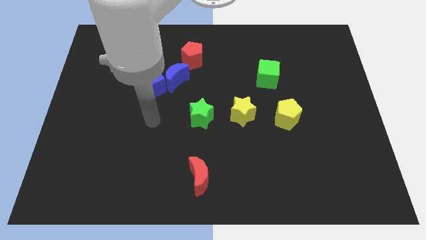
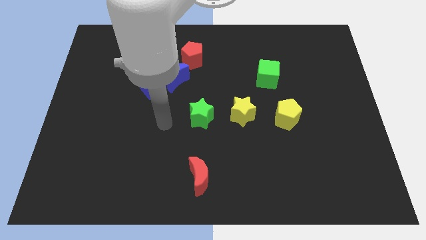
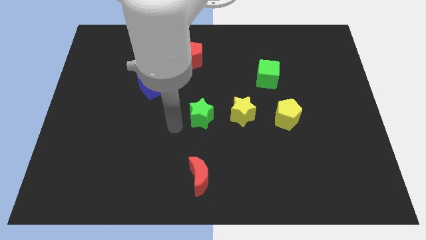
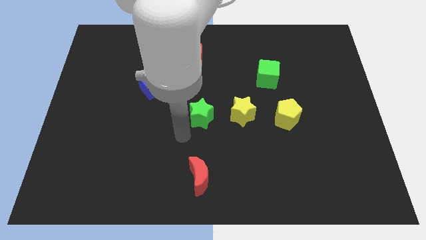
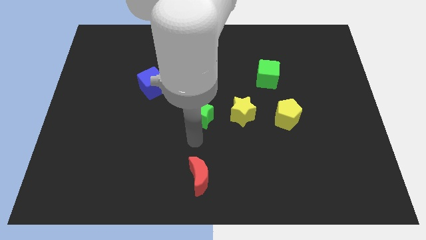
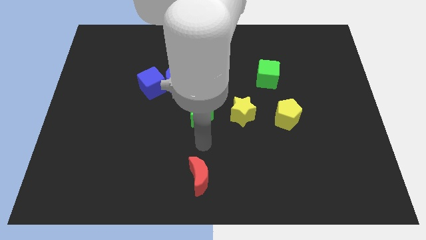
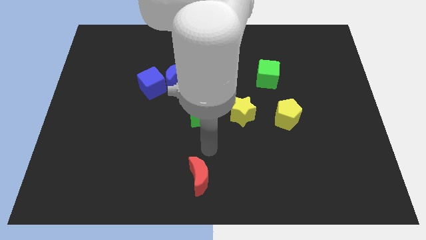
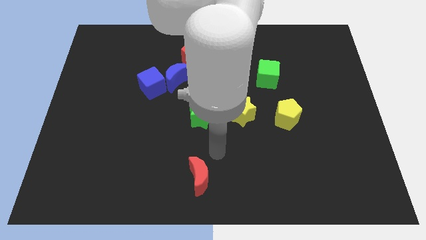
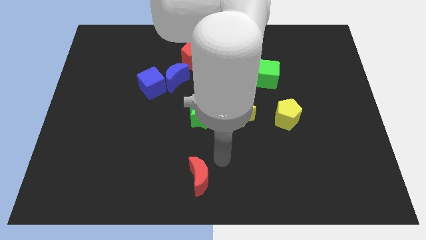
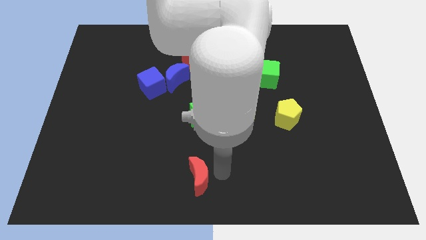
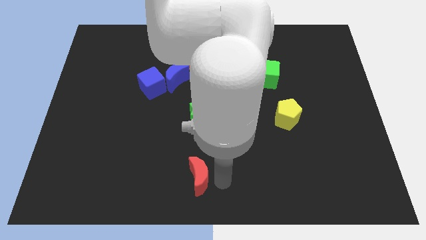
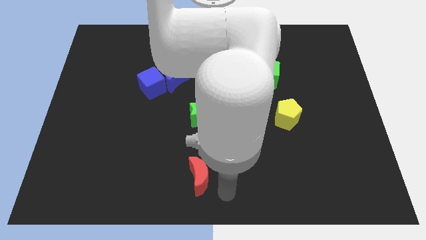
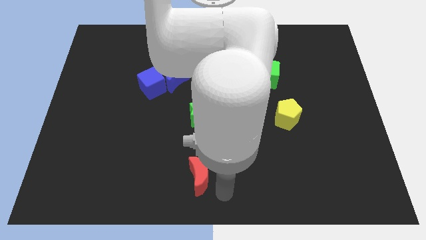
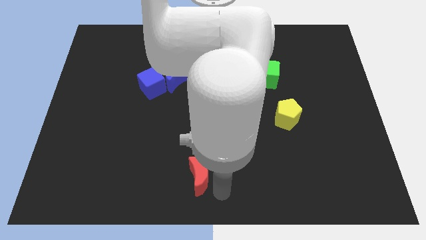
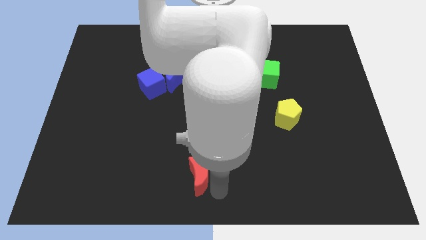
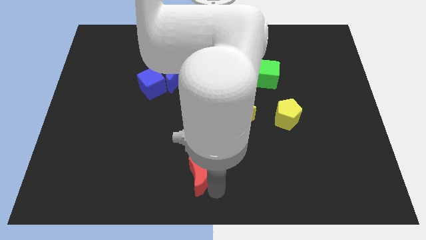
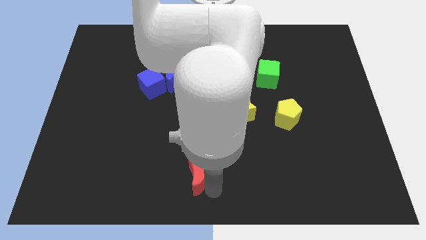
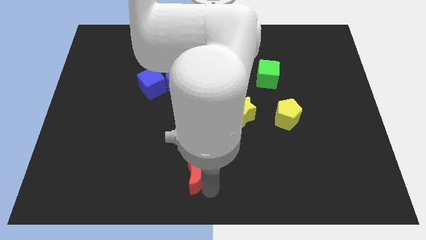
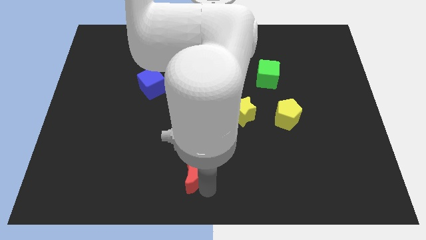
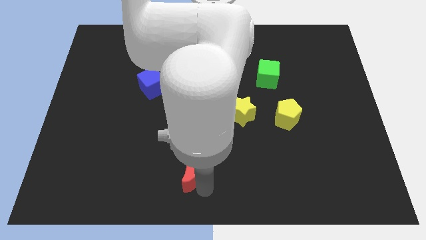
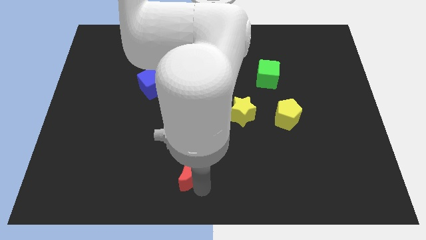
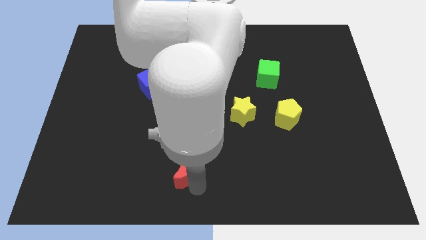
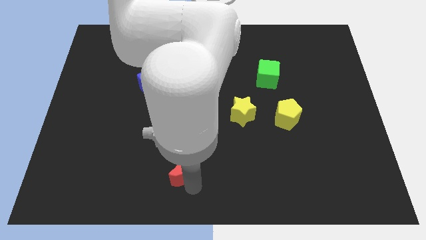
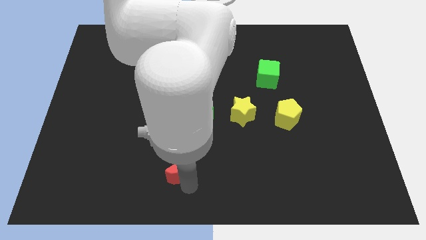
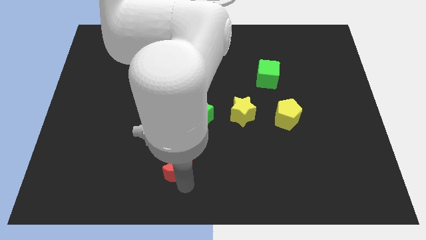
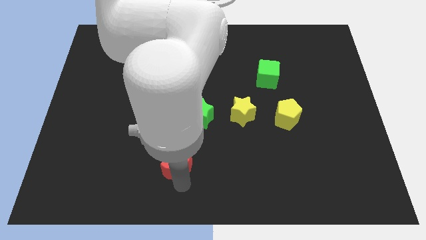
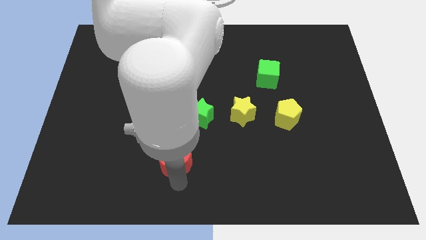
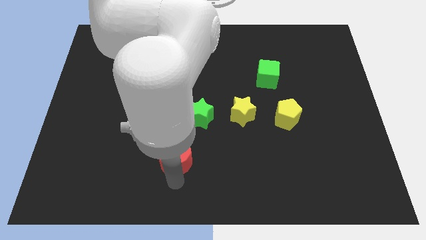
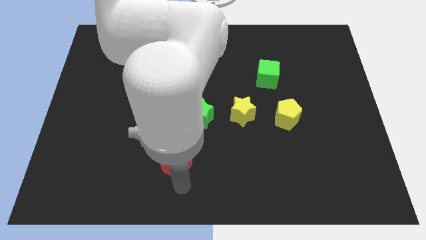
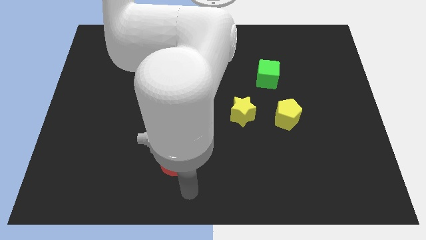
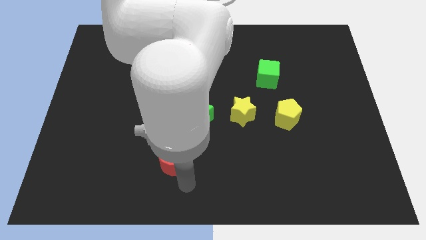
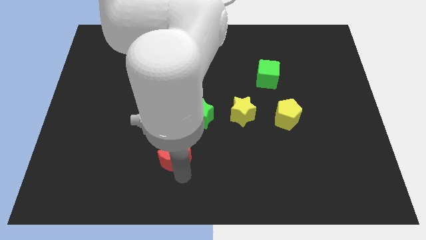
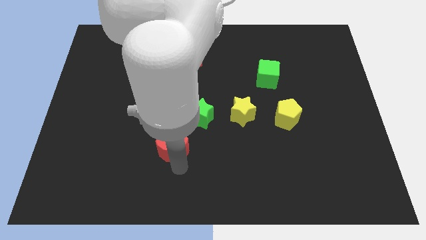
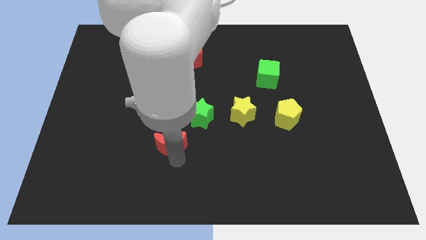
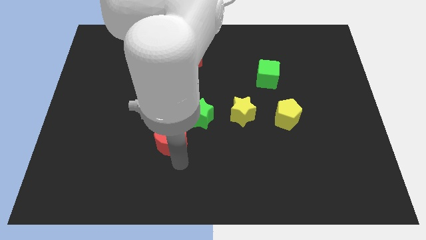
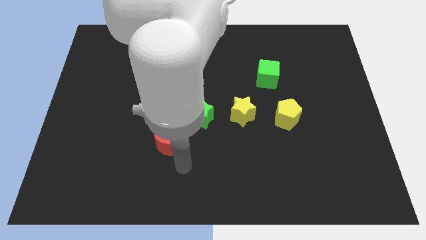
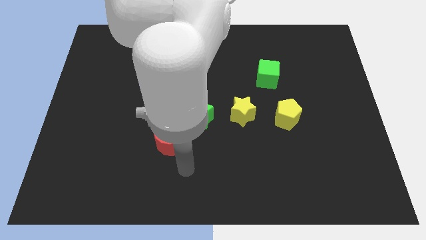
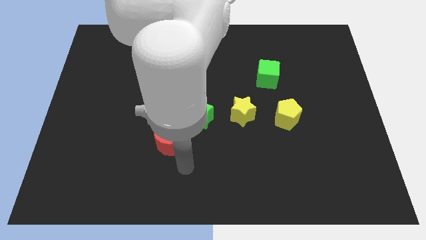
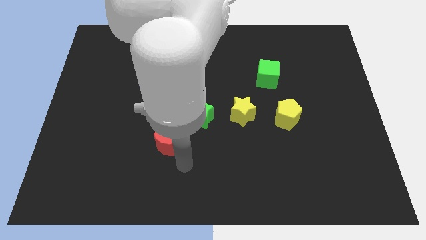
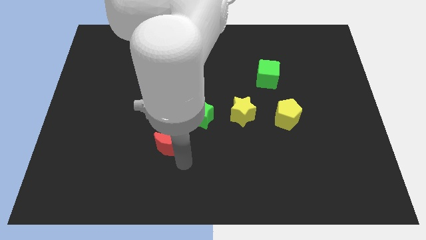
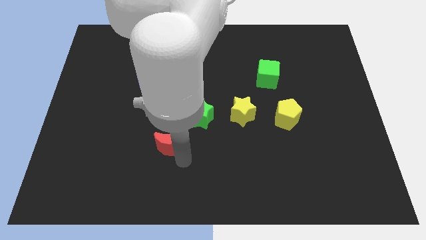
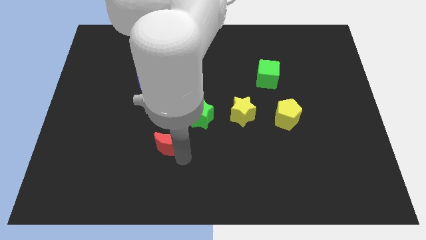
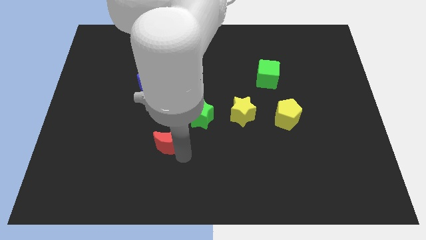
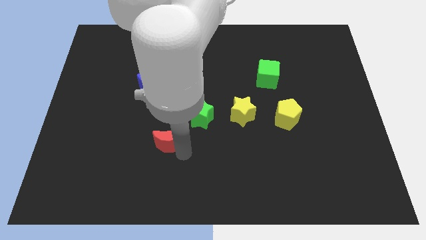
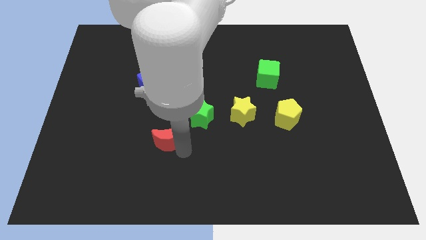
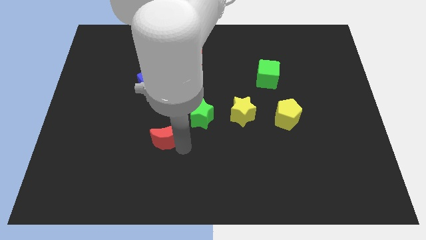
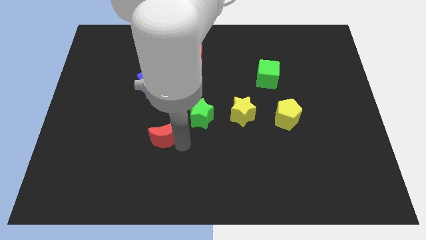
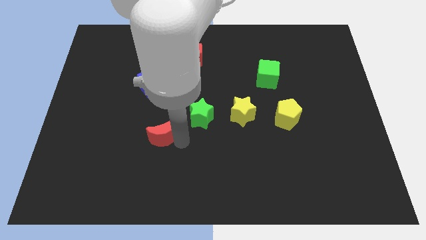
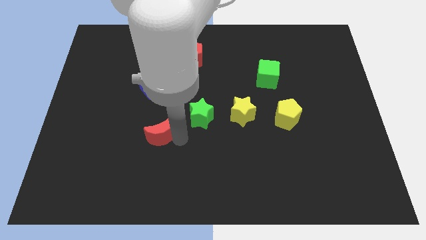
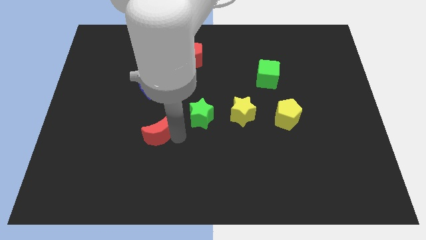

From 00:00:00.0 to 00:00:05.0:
put the red moon just left of the green star

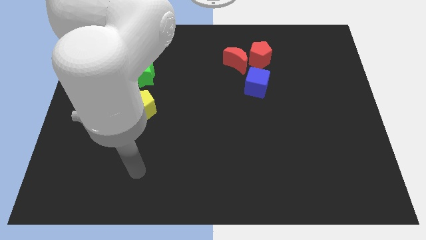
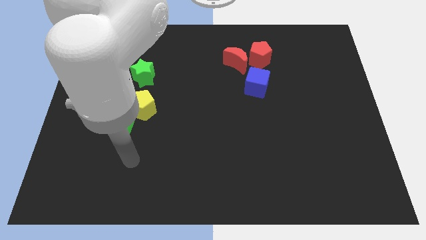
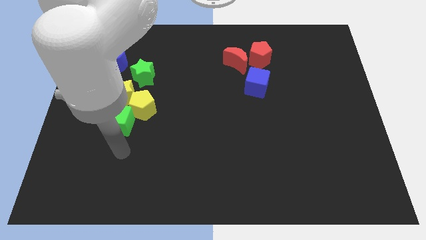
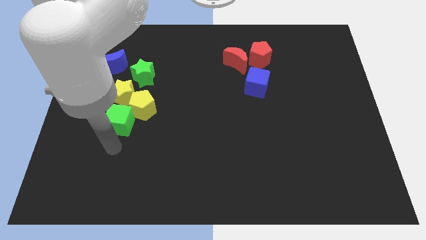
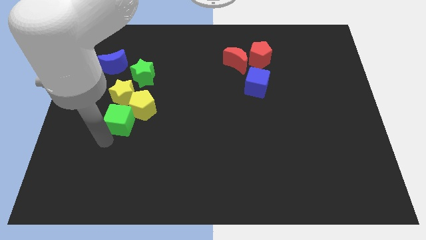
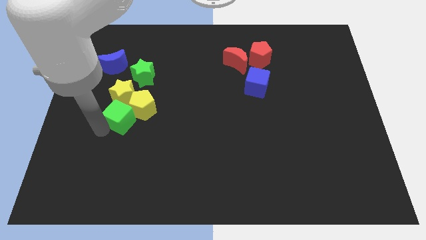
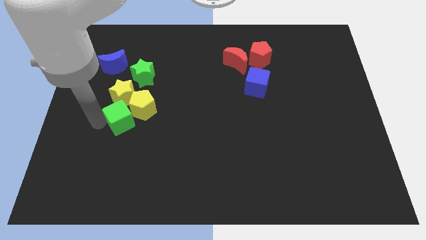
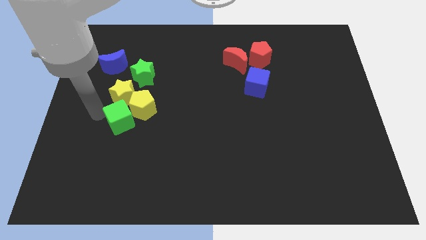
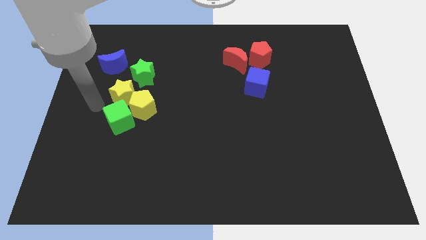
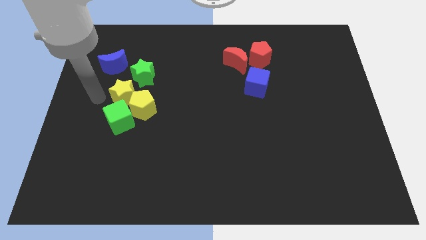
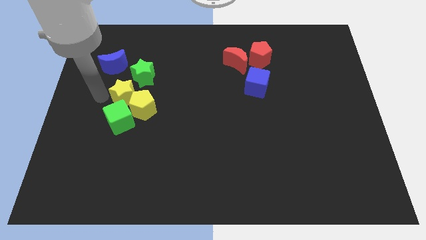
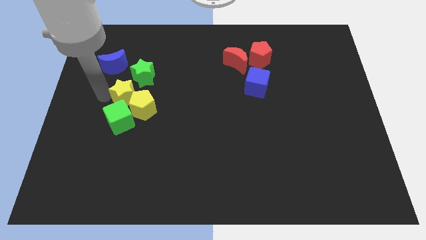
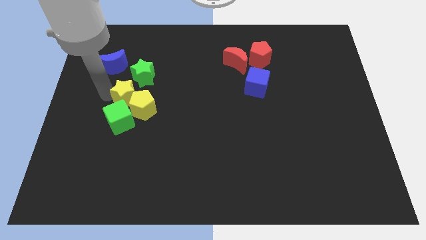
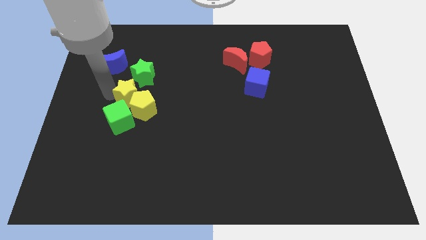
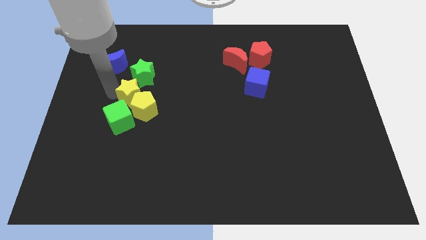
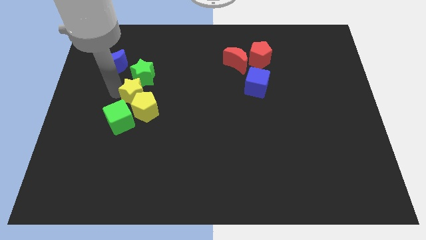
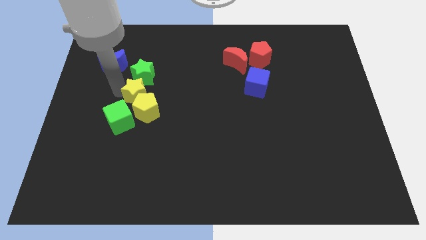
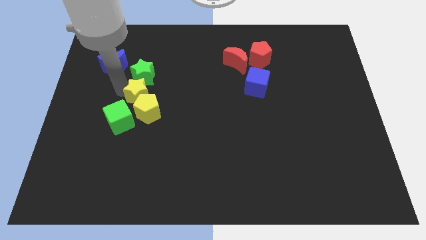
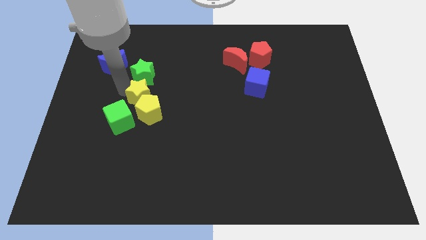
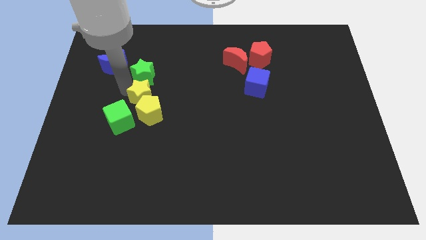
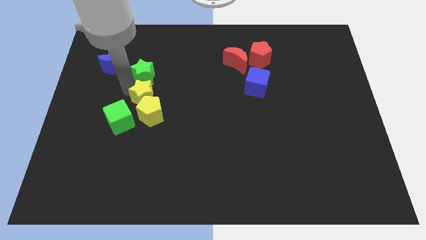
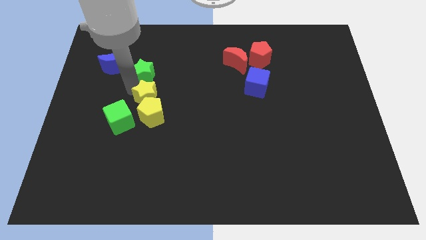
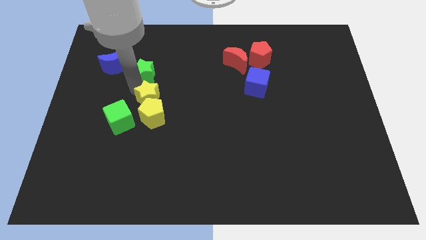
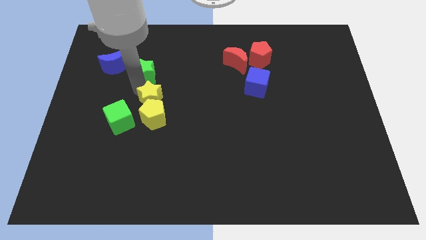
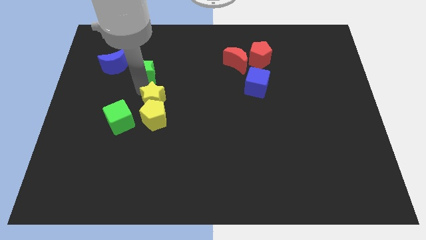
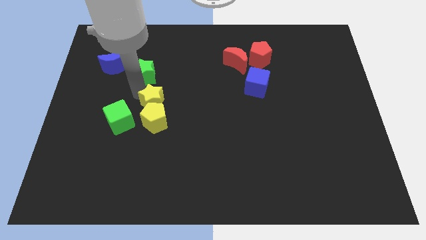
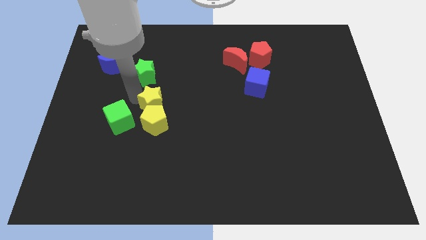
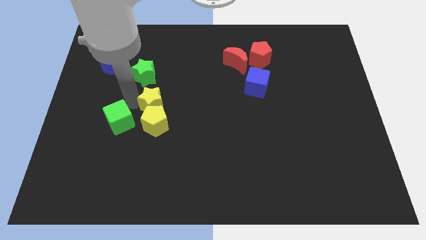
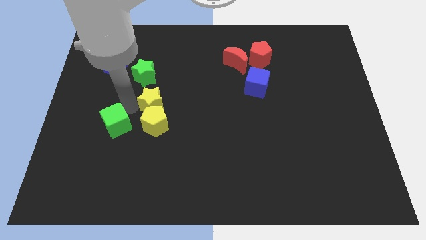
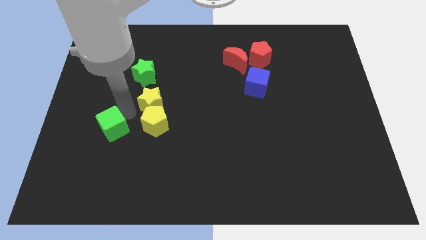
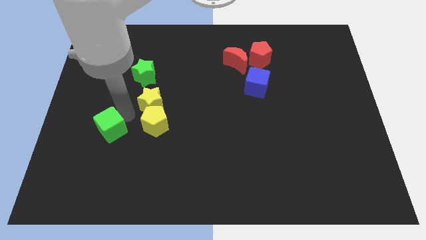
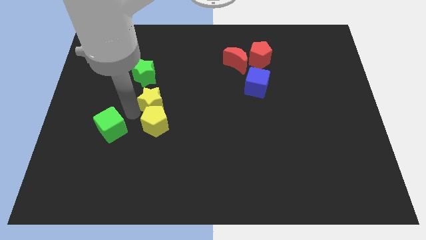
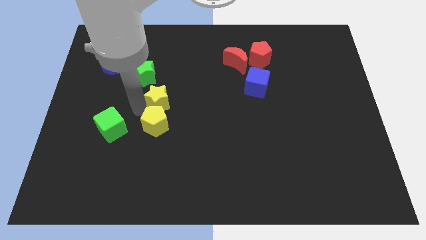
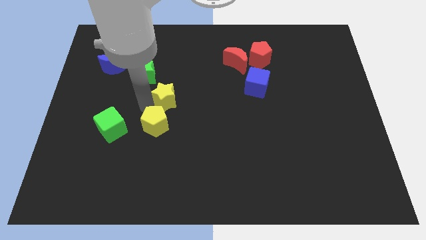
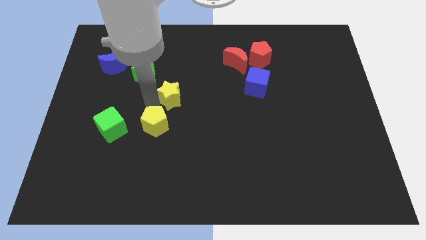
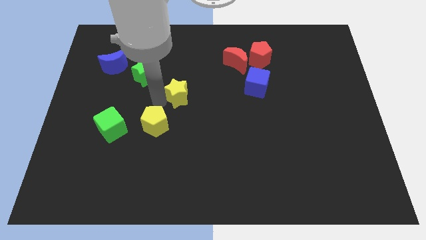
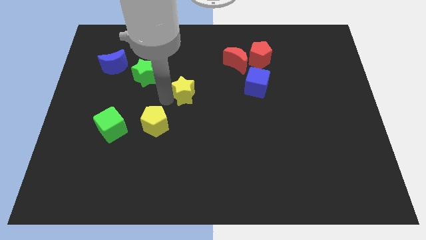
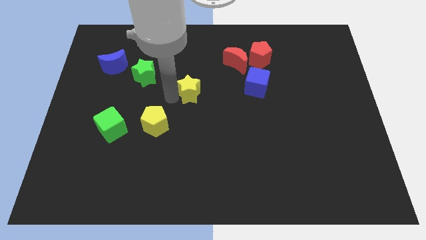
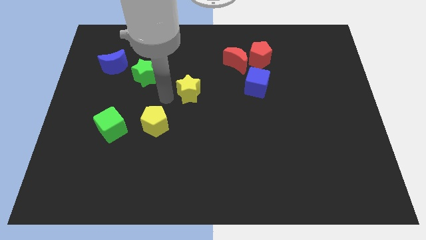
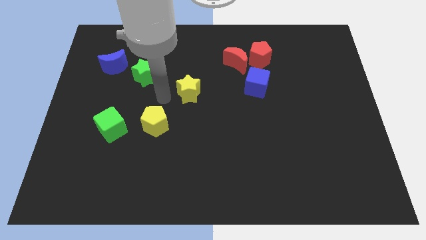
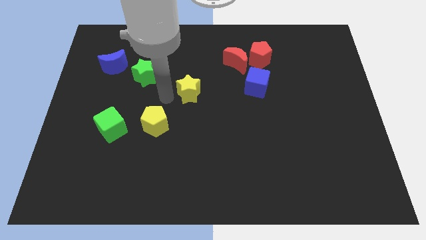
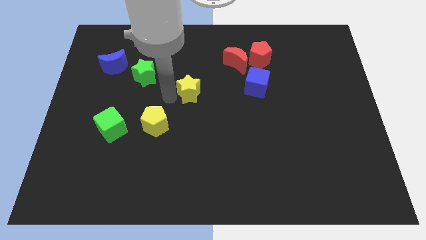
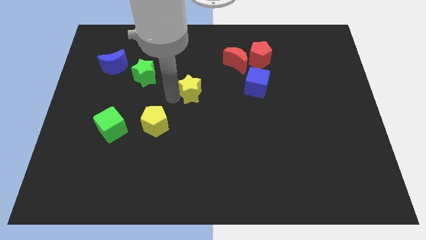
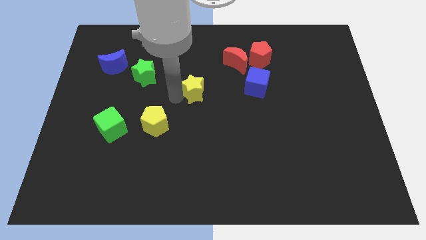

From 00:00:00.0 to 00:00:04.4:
slide the yellow star just left of the blue cube
